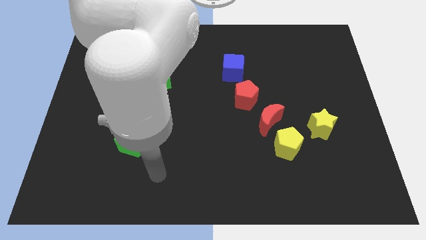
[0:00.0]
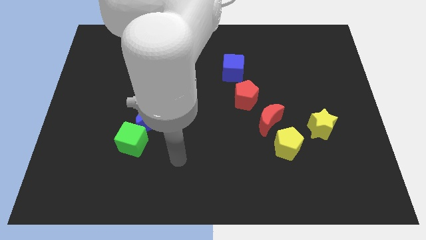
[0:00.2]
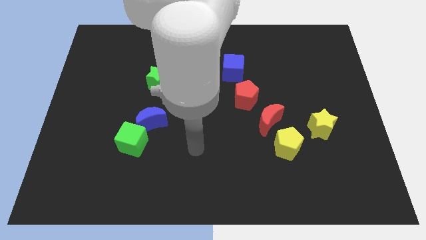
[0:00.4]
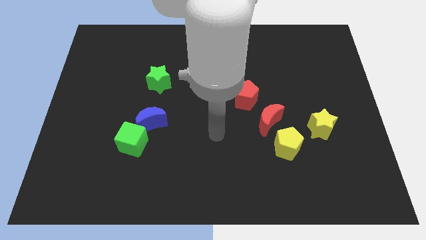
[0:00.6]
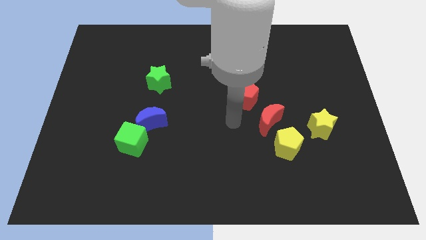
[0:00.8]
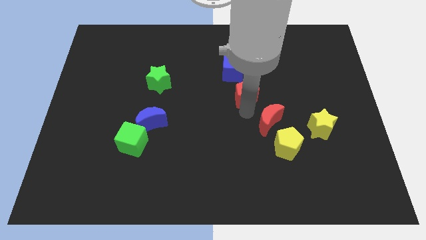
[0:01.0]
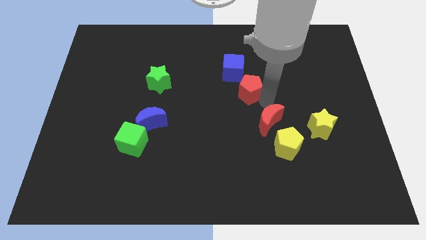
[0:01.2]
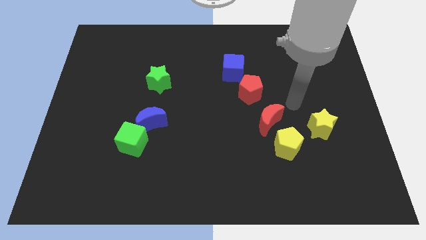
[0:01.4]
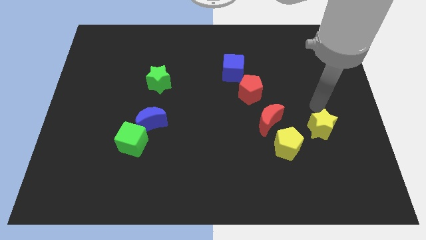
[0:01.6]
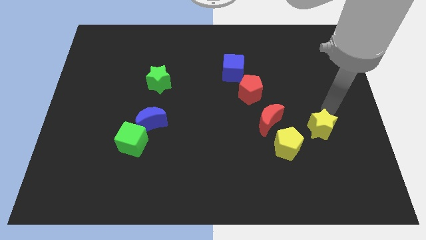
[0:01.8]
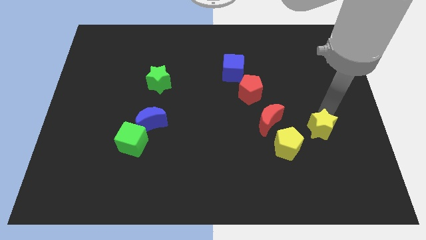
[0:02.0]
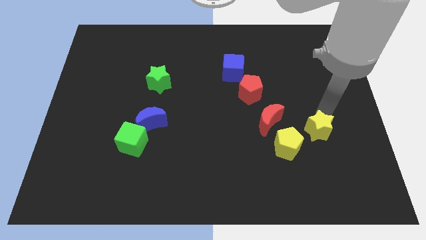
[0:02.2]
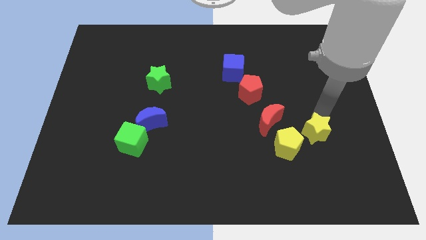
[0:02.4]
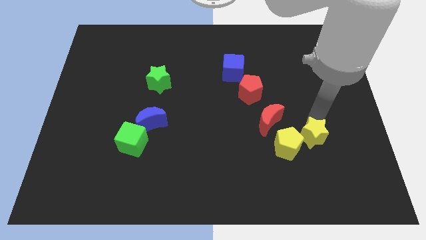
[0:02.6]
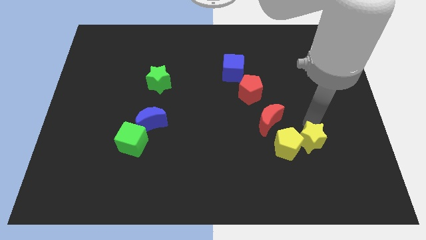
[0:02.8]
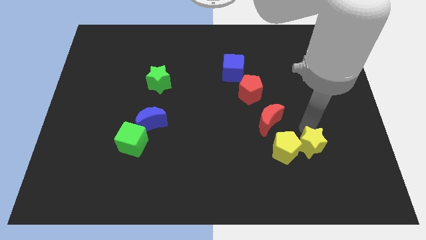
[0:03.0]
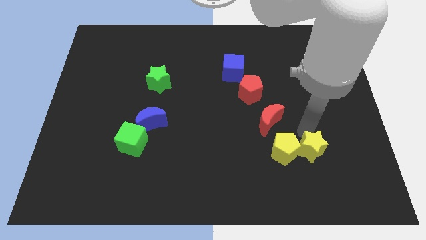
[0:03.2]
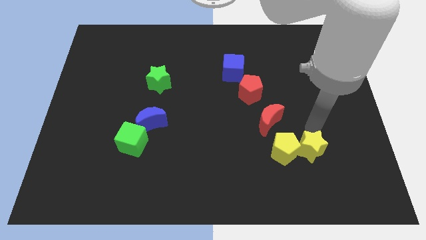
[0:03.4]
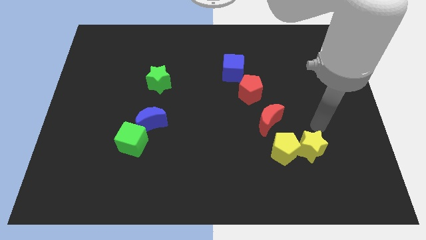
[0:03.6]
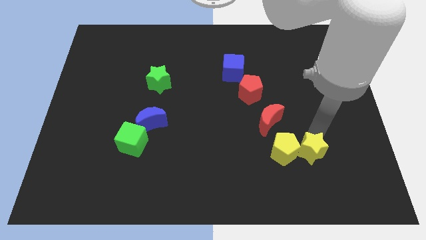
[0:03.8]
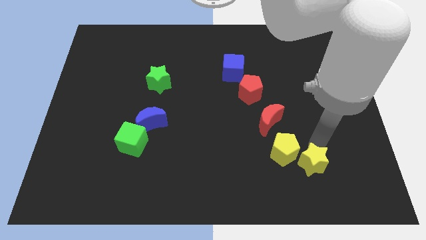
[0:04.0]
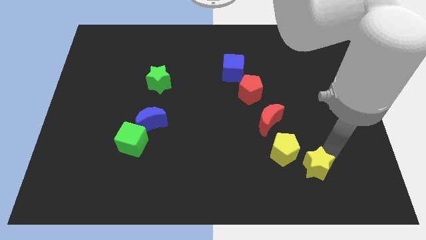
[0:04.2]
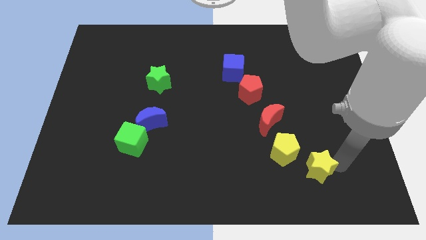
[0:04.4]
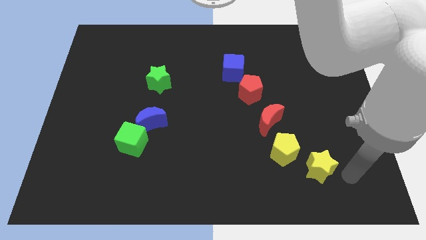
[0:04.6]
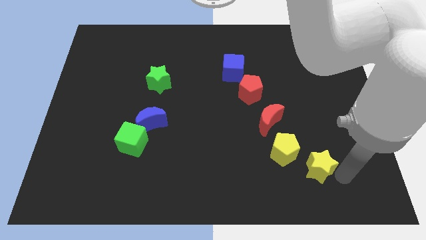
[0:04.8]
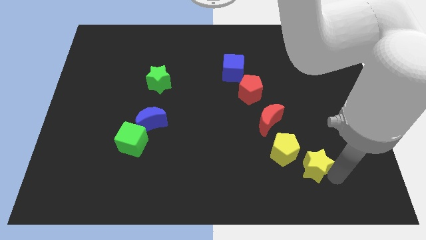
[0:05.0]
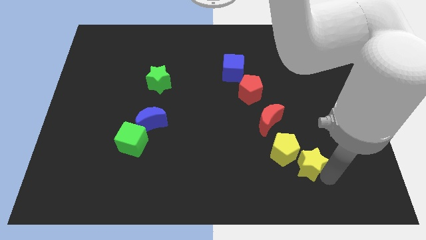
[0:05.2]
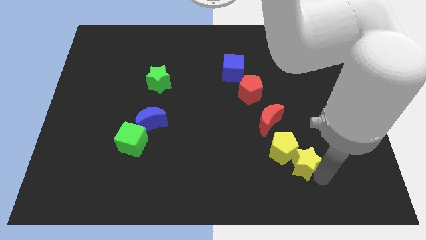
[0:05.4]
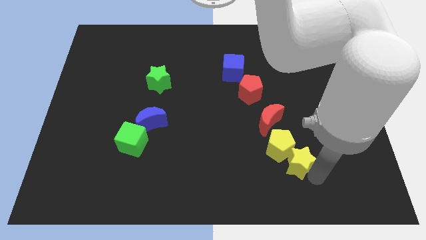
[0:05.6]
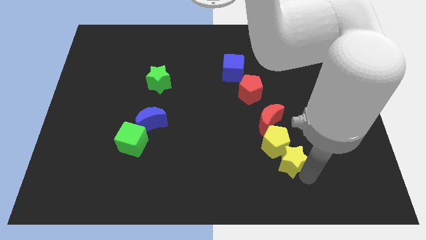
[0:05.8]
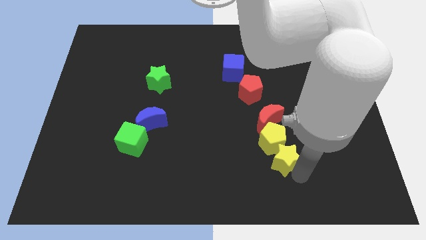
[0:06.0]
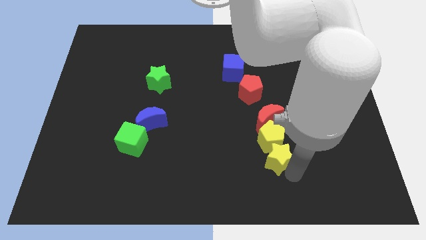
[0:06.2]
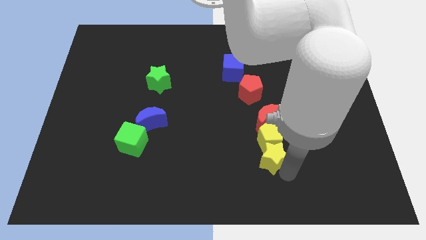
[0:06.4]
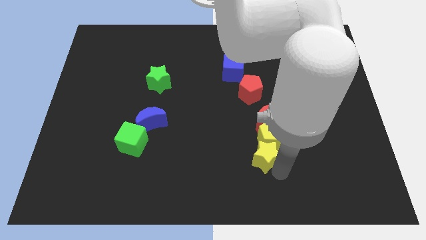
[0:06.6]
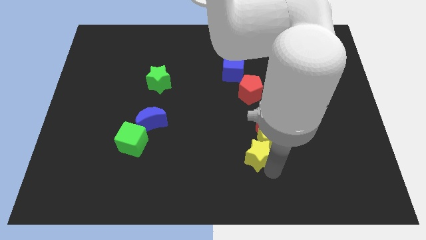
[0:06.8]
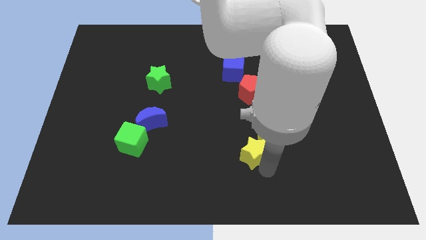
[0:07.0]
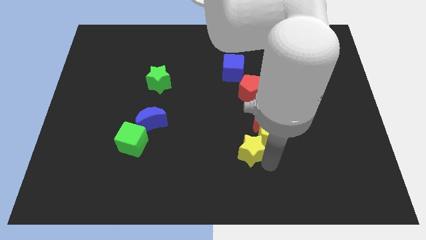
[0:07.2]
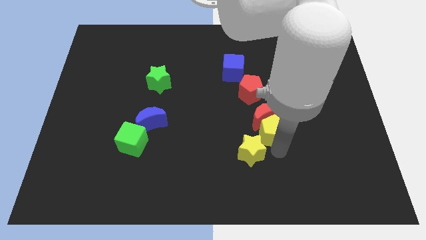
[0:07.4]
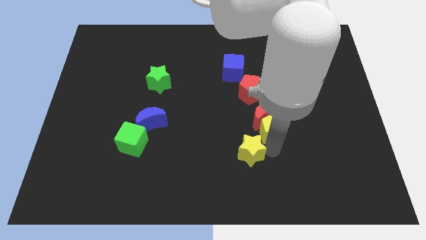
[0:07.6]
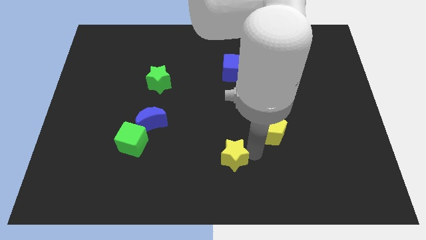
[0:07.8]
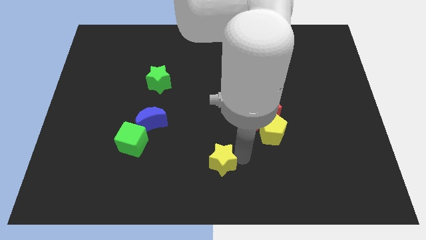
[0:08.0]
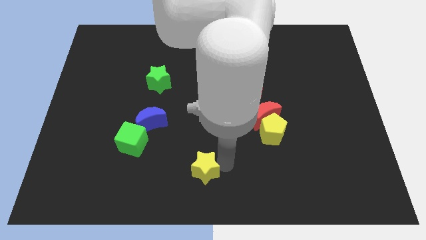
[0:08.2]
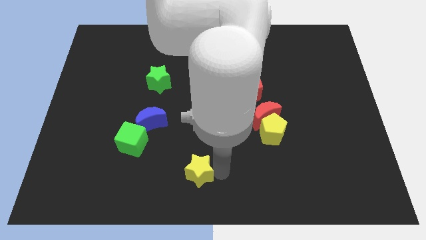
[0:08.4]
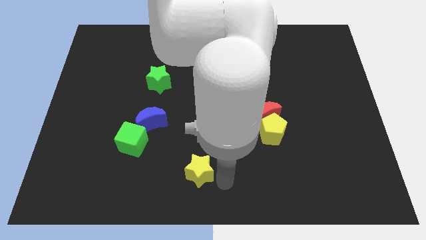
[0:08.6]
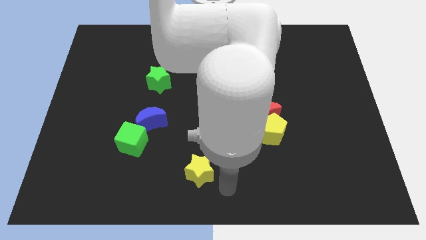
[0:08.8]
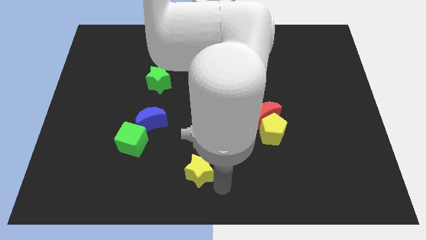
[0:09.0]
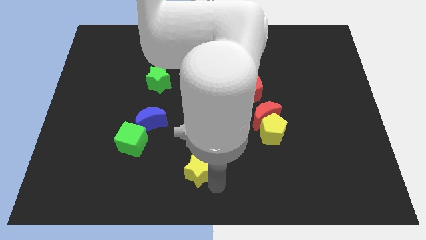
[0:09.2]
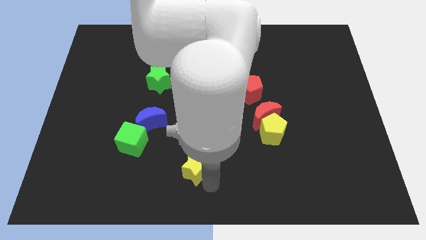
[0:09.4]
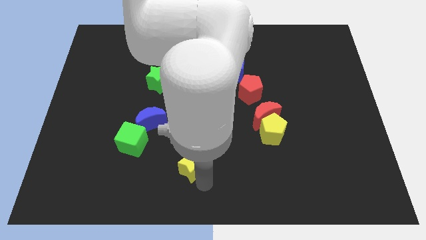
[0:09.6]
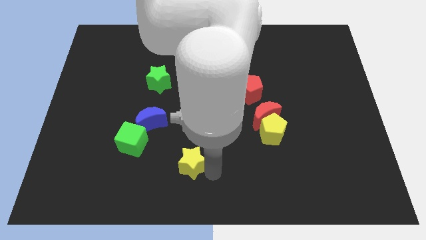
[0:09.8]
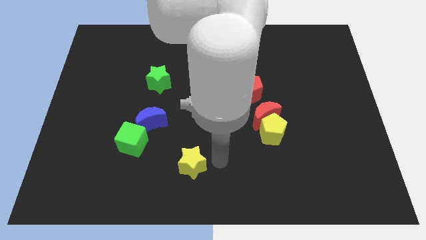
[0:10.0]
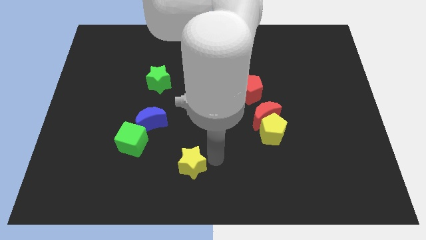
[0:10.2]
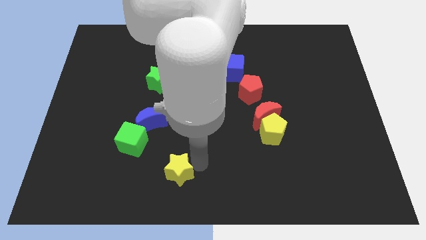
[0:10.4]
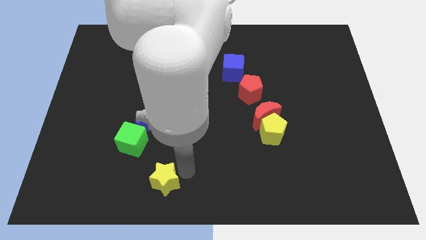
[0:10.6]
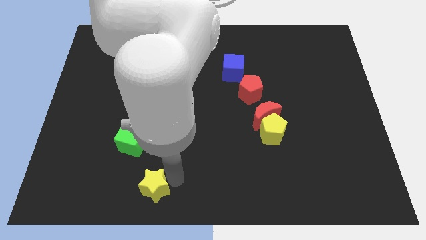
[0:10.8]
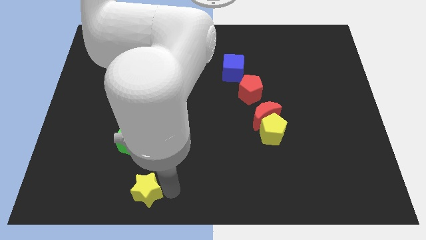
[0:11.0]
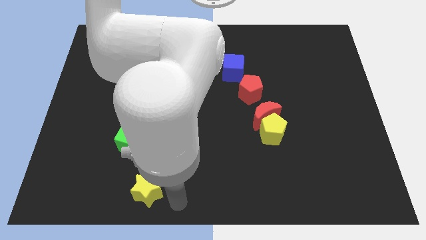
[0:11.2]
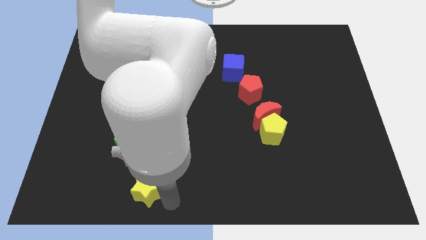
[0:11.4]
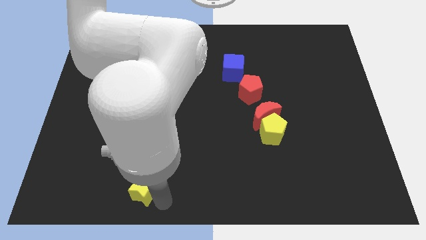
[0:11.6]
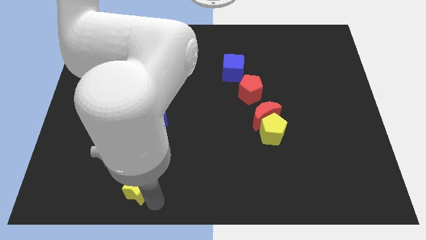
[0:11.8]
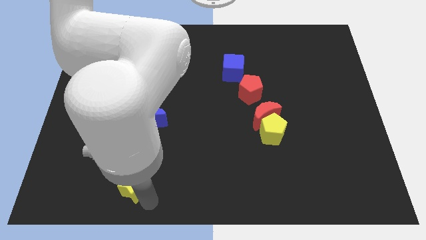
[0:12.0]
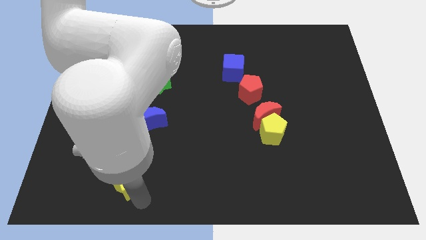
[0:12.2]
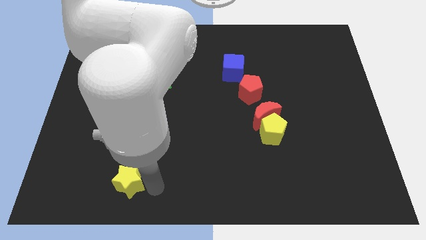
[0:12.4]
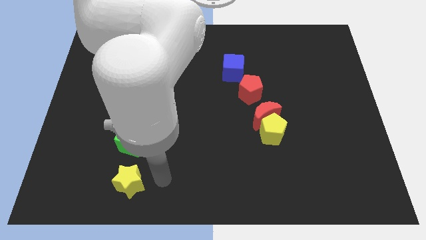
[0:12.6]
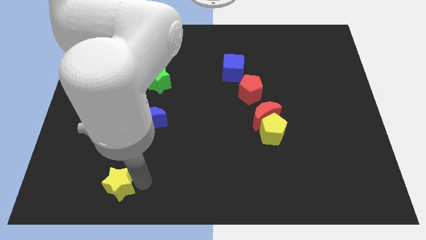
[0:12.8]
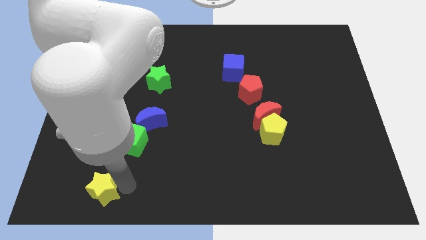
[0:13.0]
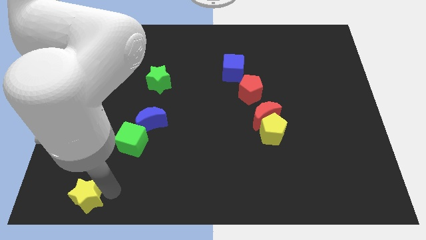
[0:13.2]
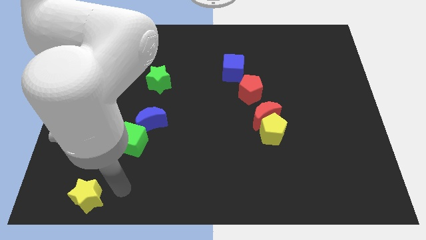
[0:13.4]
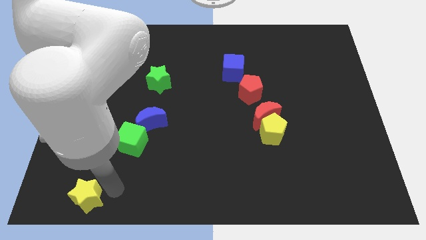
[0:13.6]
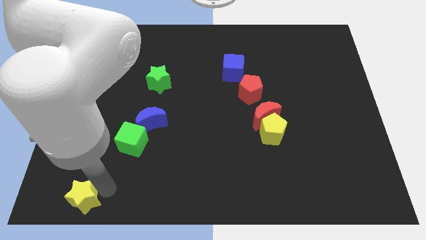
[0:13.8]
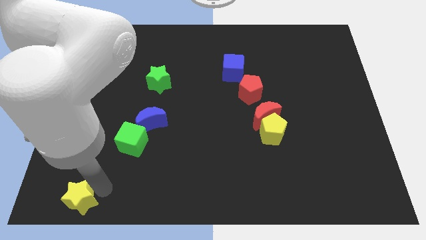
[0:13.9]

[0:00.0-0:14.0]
put the yellow star to the bottom left

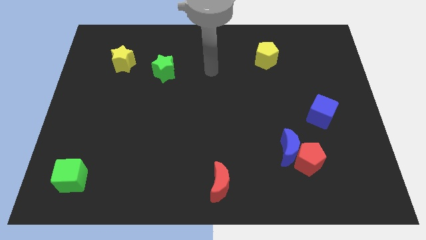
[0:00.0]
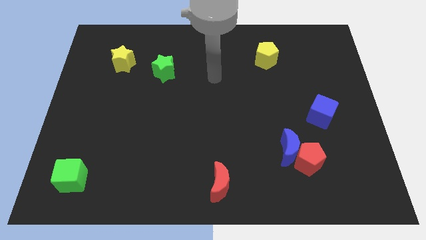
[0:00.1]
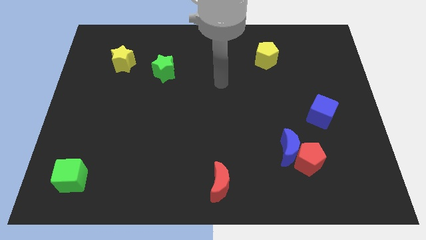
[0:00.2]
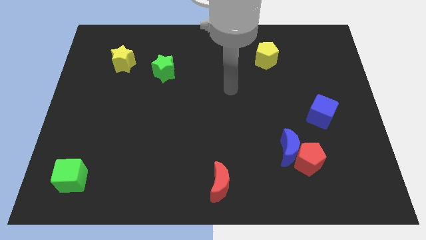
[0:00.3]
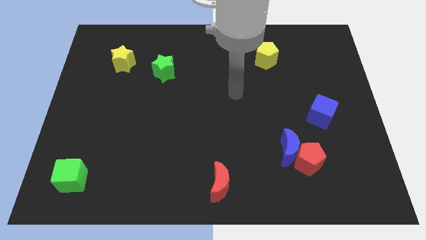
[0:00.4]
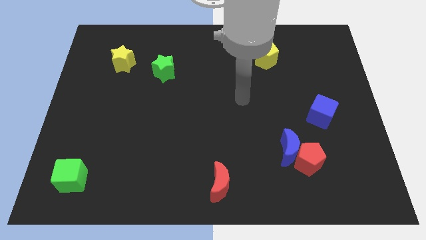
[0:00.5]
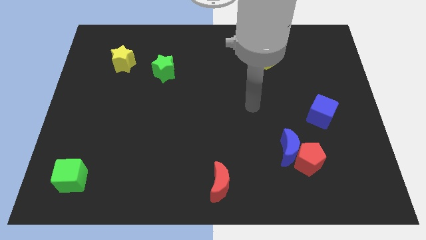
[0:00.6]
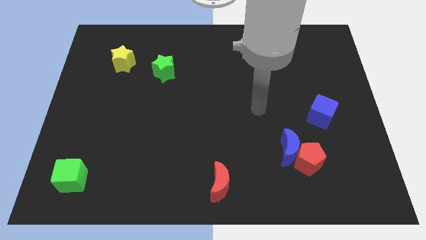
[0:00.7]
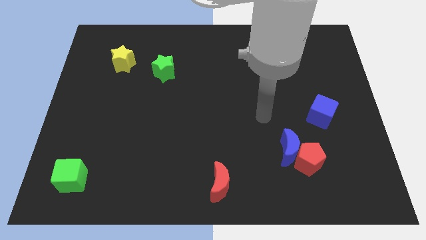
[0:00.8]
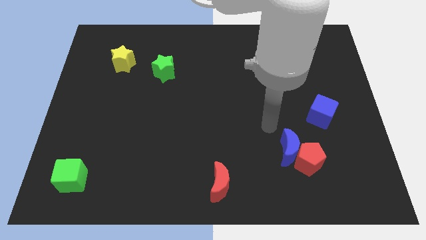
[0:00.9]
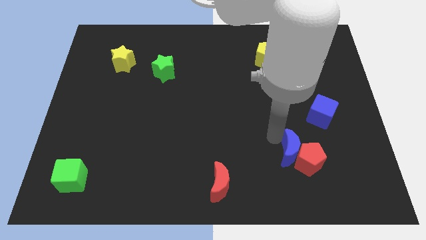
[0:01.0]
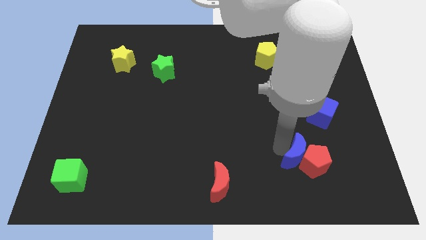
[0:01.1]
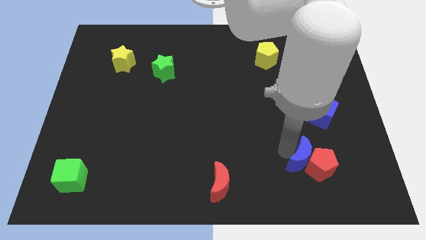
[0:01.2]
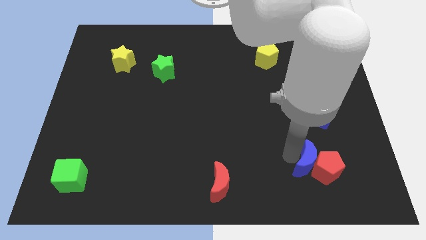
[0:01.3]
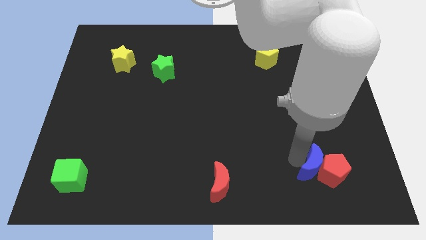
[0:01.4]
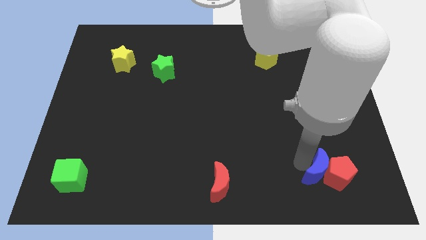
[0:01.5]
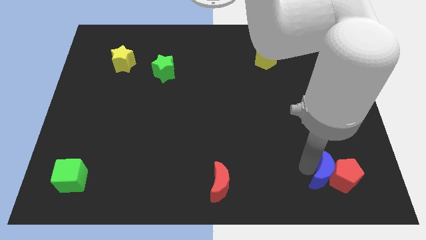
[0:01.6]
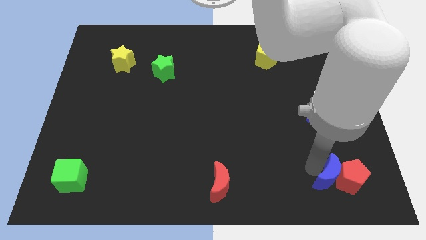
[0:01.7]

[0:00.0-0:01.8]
put the red pentagon to the lower right corner
